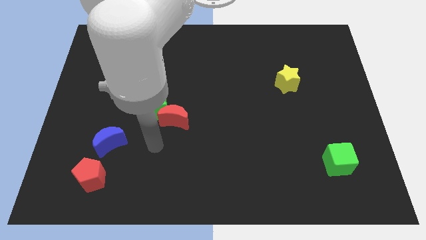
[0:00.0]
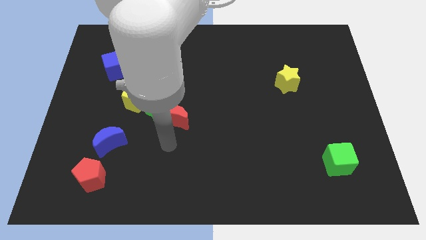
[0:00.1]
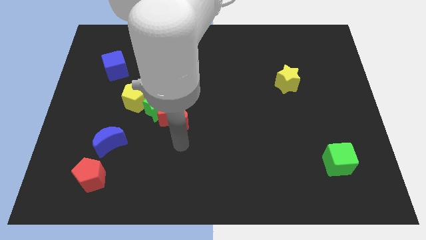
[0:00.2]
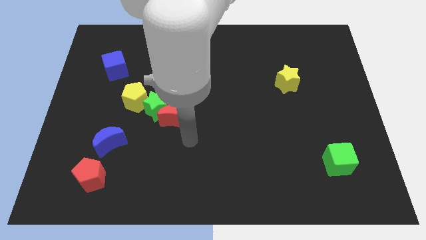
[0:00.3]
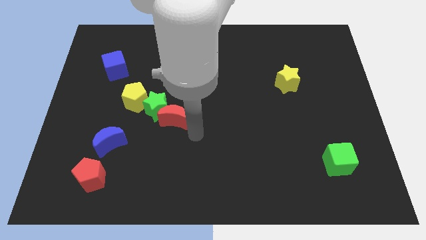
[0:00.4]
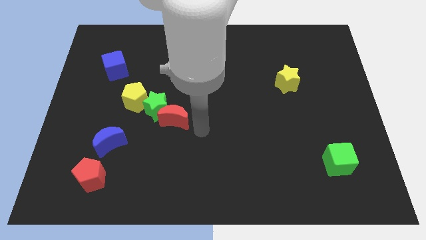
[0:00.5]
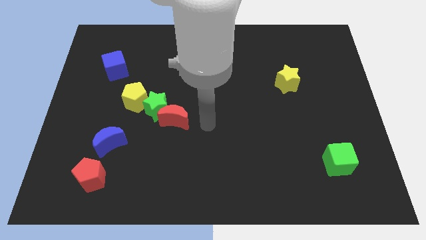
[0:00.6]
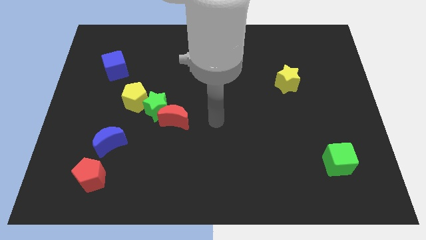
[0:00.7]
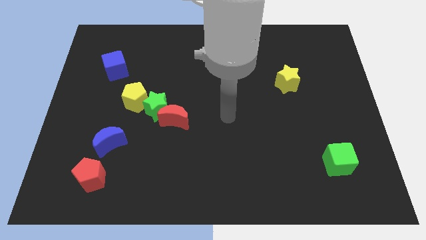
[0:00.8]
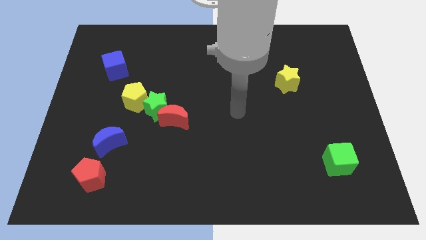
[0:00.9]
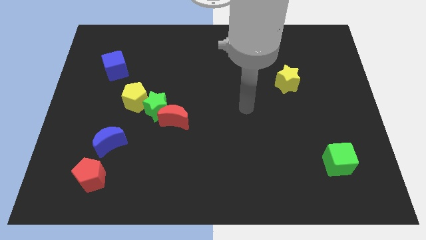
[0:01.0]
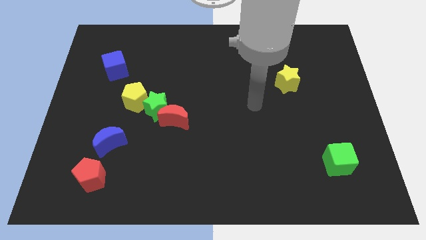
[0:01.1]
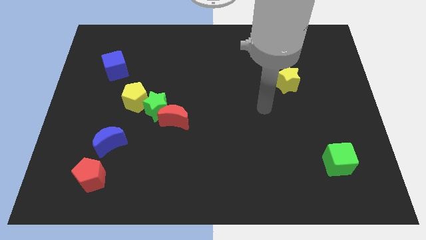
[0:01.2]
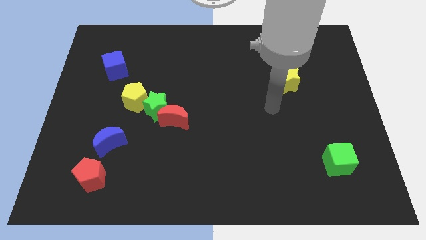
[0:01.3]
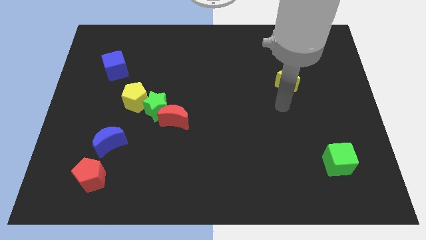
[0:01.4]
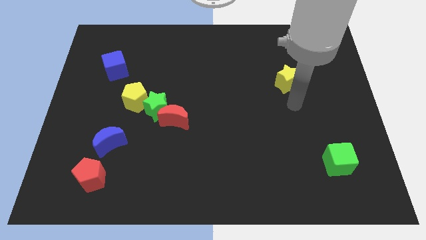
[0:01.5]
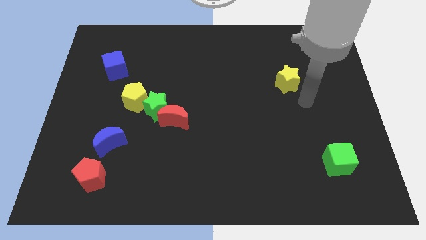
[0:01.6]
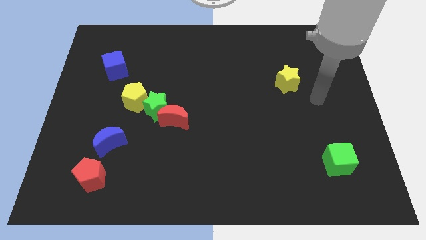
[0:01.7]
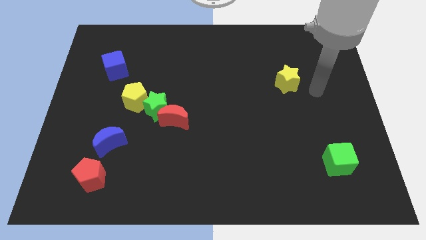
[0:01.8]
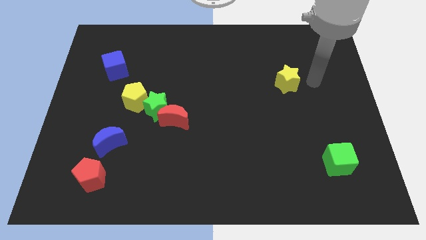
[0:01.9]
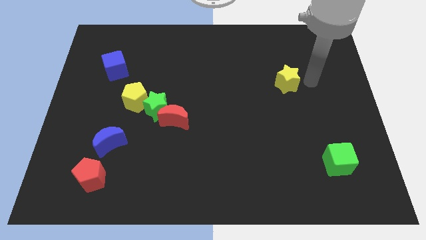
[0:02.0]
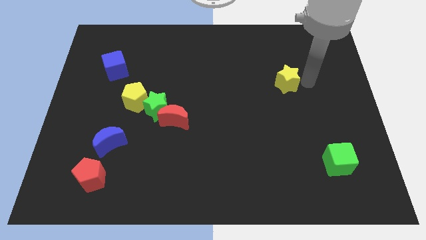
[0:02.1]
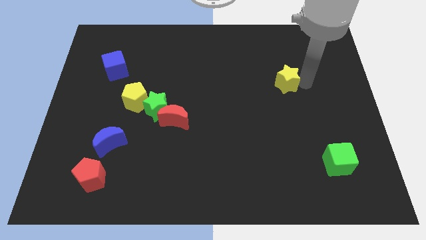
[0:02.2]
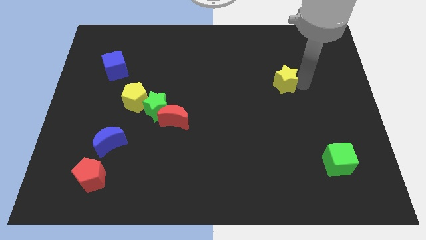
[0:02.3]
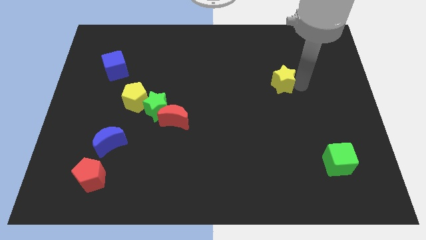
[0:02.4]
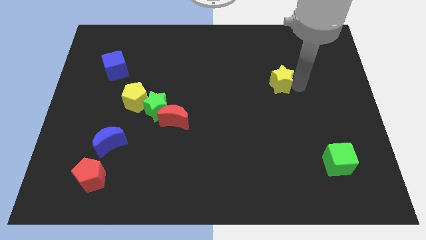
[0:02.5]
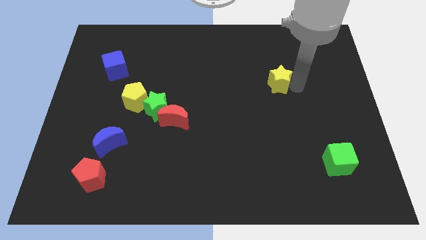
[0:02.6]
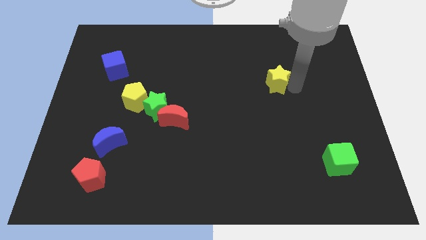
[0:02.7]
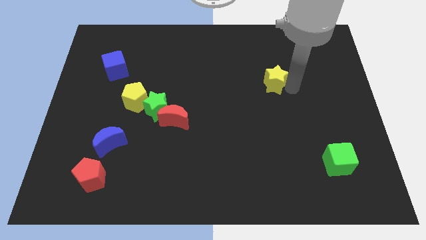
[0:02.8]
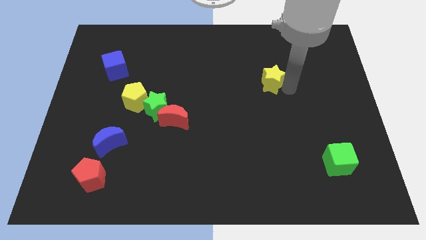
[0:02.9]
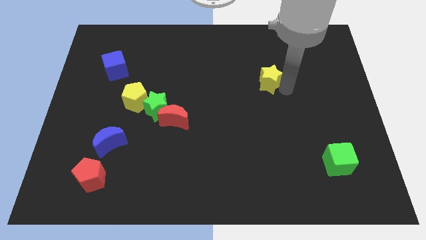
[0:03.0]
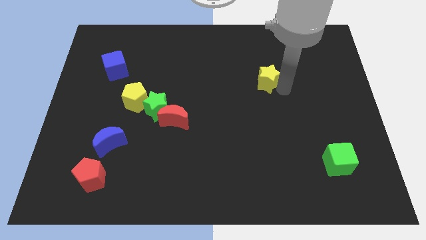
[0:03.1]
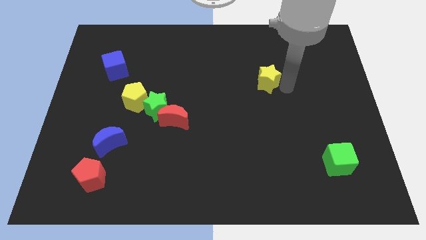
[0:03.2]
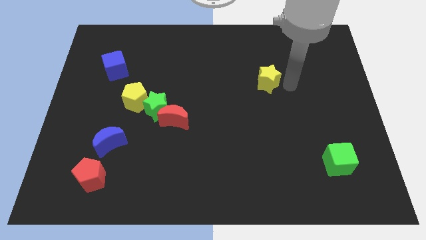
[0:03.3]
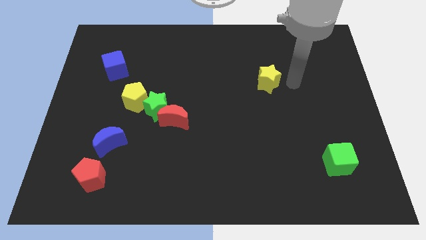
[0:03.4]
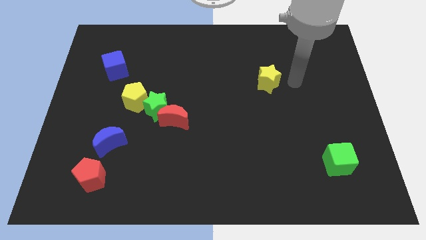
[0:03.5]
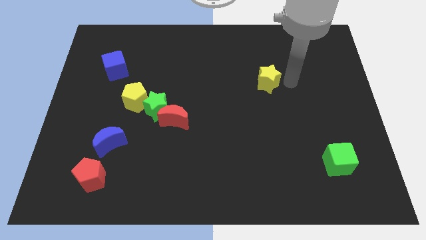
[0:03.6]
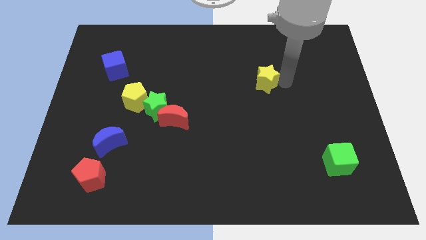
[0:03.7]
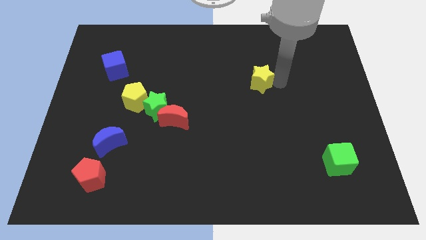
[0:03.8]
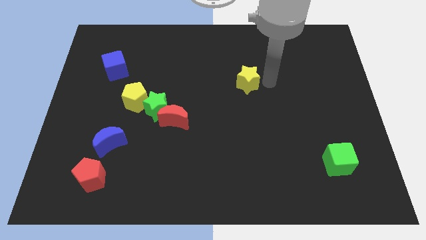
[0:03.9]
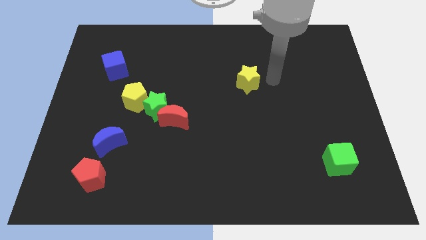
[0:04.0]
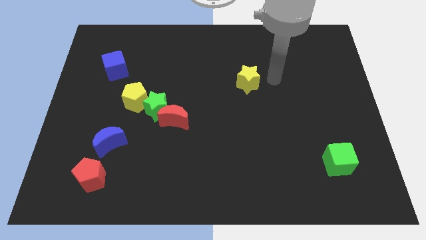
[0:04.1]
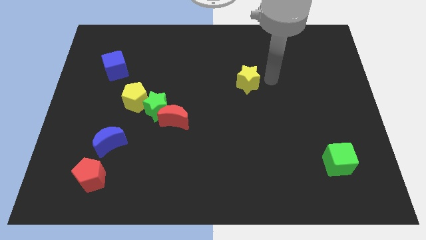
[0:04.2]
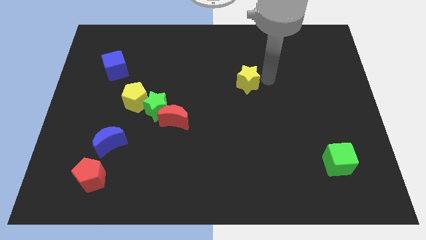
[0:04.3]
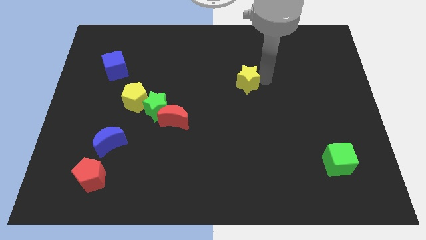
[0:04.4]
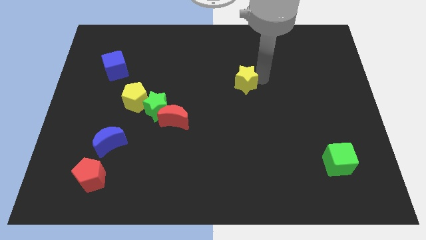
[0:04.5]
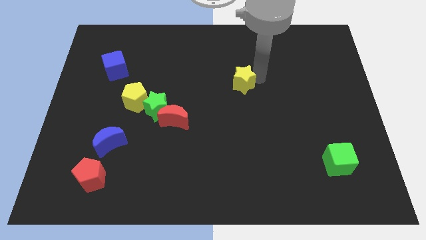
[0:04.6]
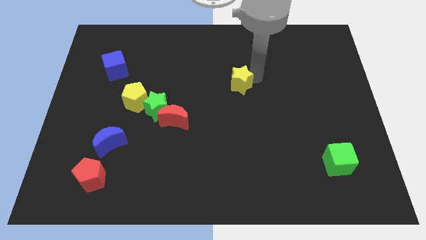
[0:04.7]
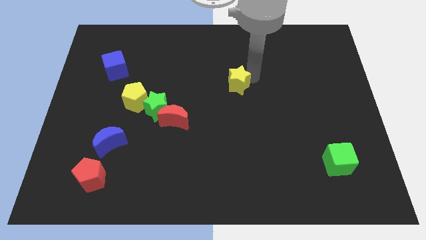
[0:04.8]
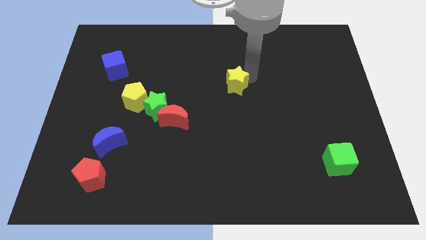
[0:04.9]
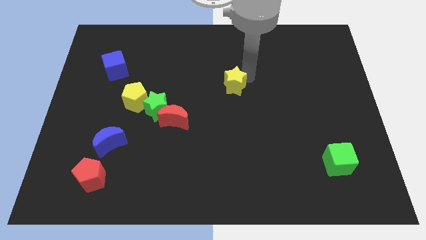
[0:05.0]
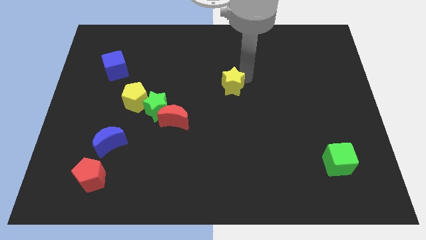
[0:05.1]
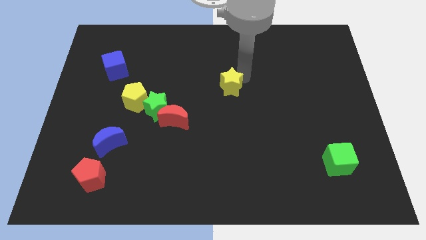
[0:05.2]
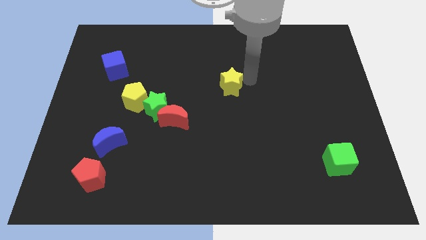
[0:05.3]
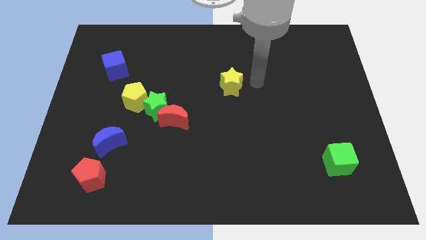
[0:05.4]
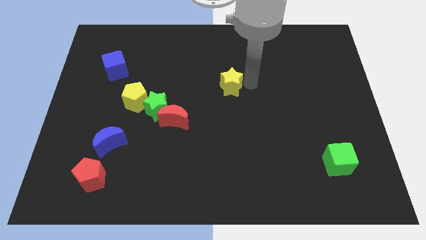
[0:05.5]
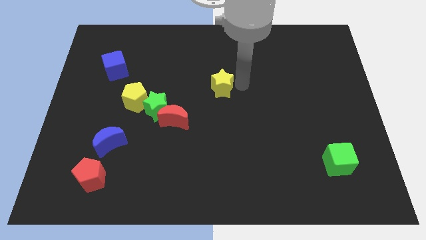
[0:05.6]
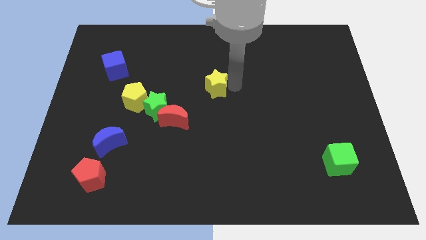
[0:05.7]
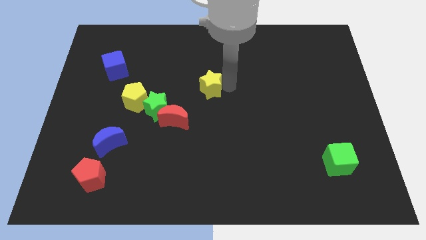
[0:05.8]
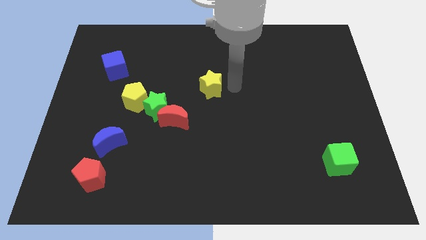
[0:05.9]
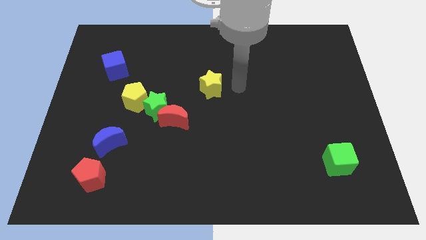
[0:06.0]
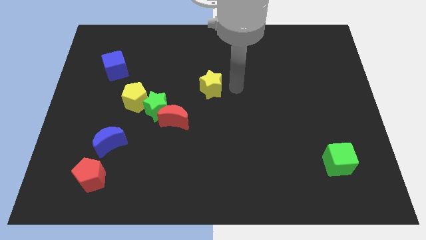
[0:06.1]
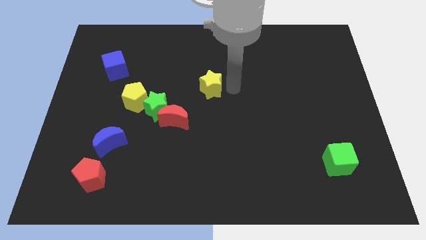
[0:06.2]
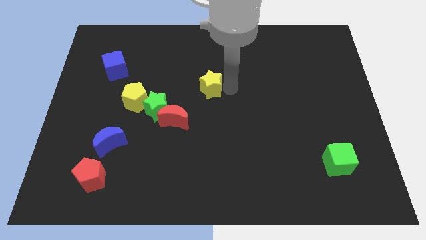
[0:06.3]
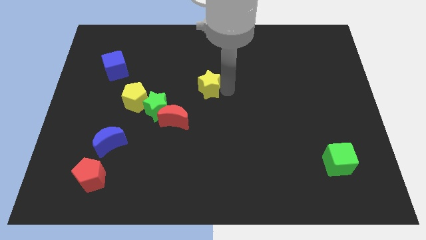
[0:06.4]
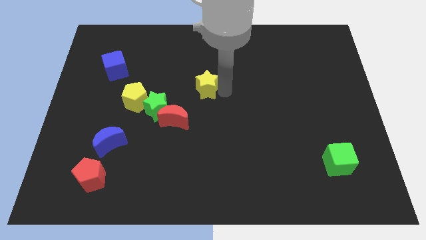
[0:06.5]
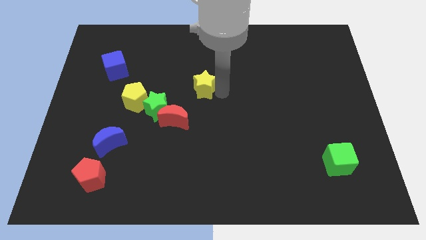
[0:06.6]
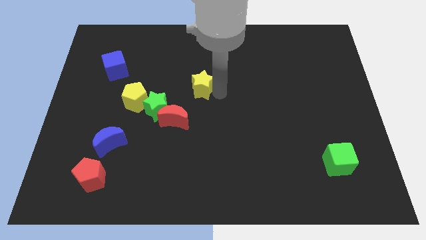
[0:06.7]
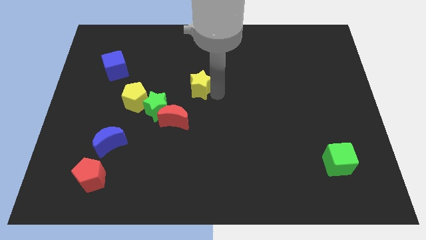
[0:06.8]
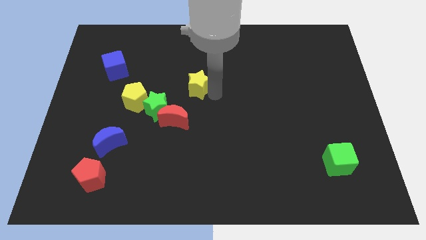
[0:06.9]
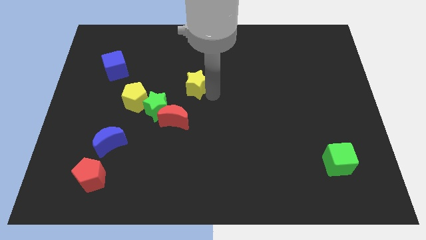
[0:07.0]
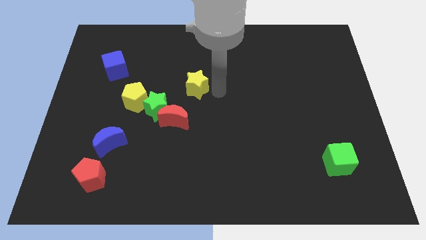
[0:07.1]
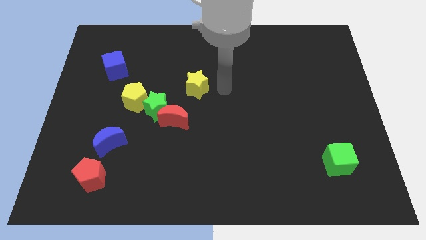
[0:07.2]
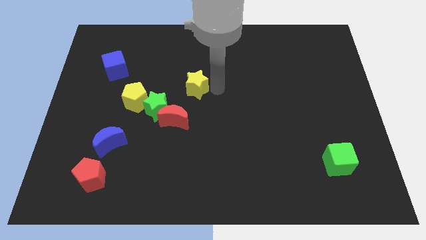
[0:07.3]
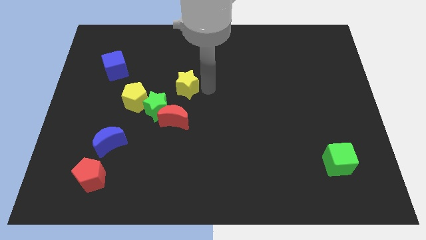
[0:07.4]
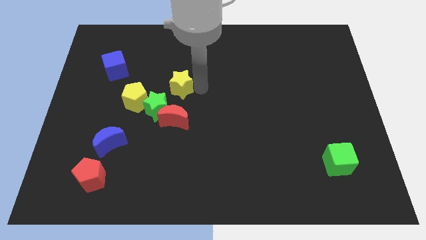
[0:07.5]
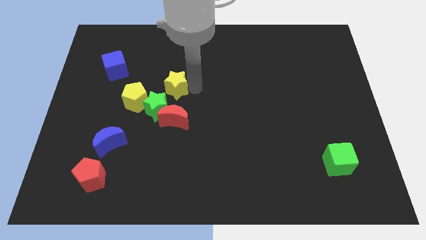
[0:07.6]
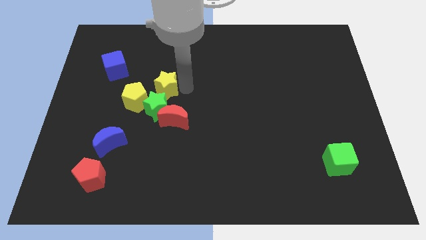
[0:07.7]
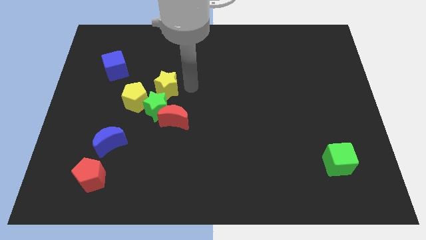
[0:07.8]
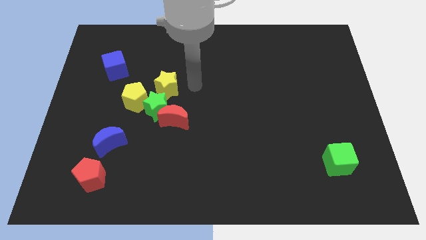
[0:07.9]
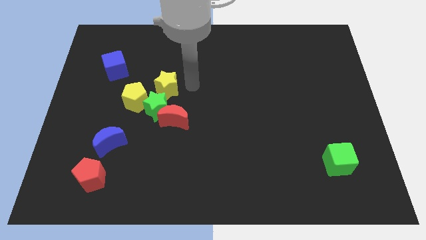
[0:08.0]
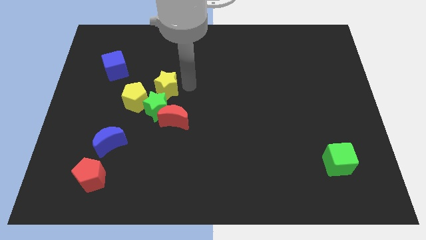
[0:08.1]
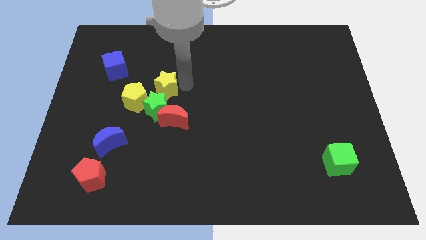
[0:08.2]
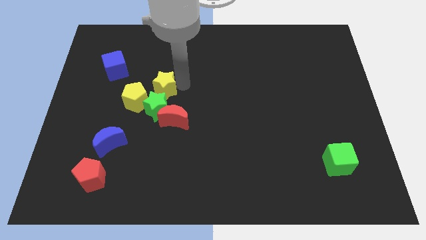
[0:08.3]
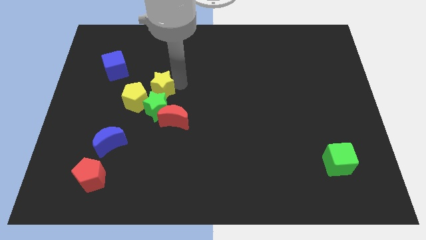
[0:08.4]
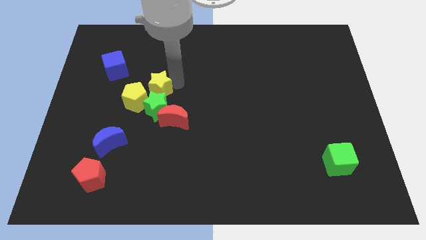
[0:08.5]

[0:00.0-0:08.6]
put the yellow star diagonally up and to the left of the green star
